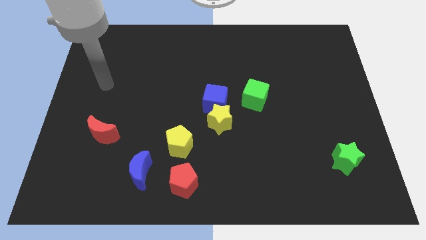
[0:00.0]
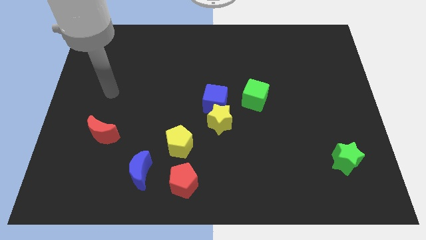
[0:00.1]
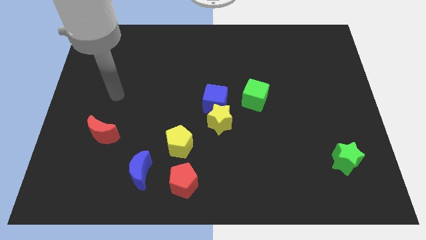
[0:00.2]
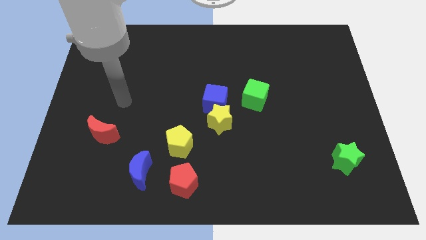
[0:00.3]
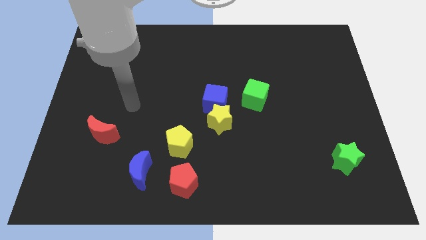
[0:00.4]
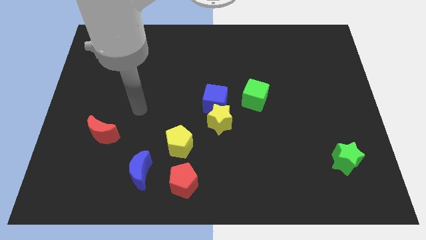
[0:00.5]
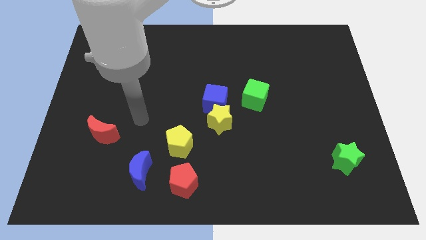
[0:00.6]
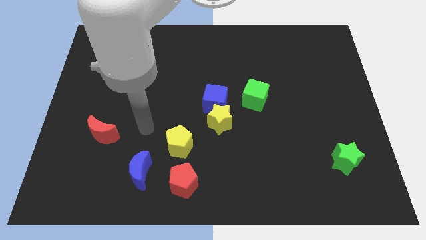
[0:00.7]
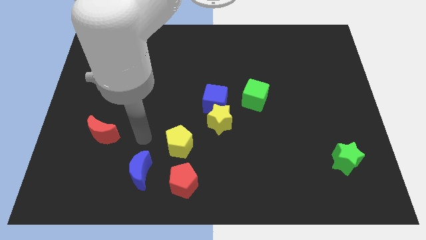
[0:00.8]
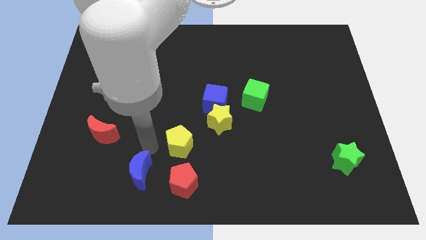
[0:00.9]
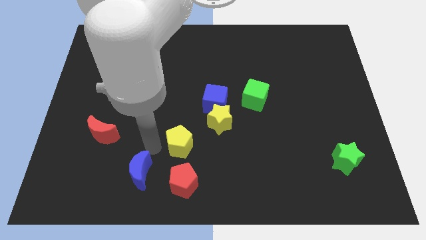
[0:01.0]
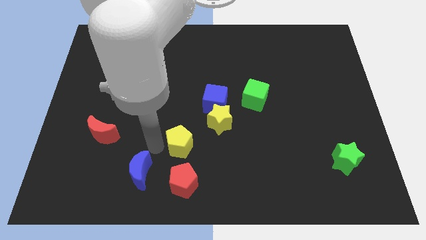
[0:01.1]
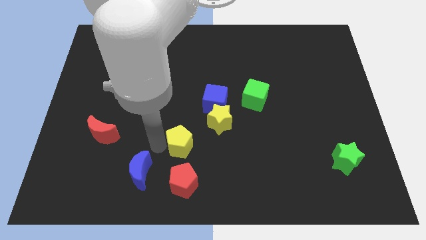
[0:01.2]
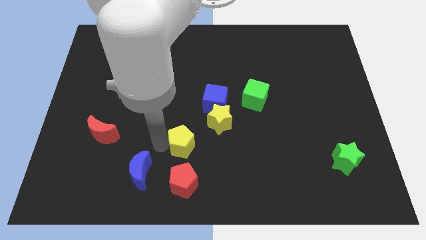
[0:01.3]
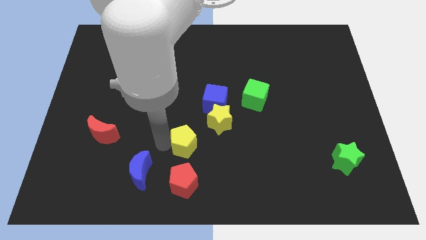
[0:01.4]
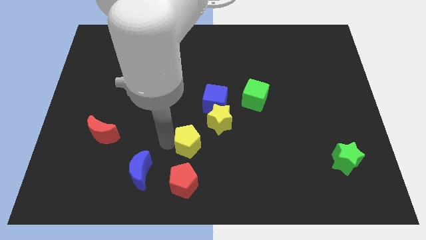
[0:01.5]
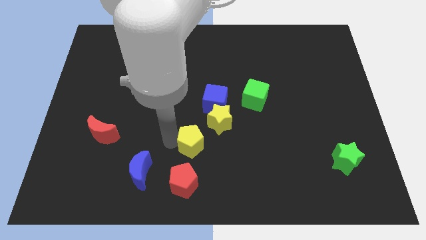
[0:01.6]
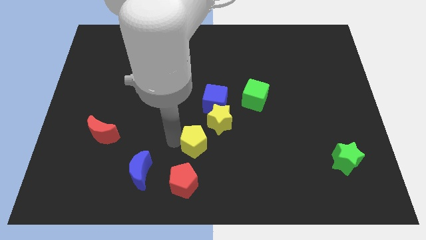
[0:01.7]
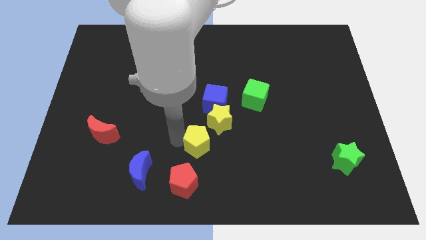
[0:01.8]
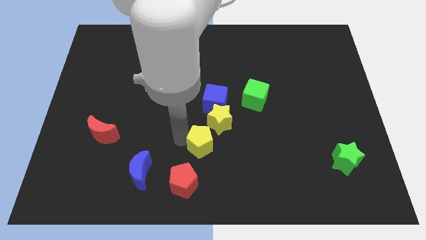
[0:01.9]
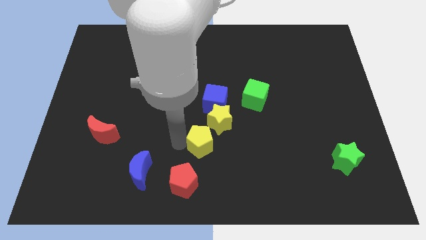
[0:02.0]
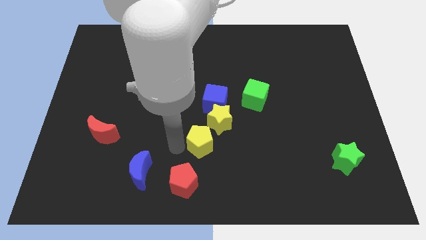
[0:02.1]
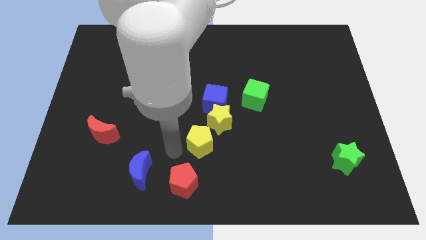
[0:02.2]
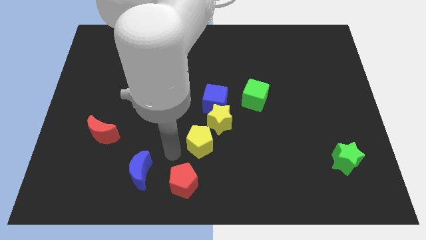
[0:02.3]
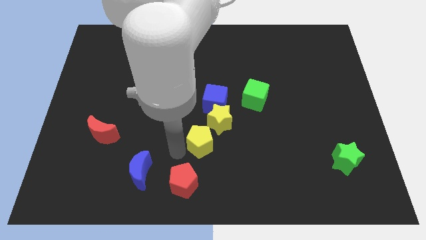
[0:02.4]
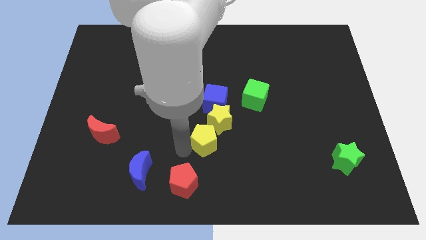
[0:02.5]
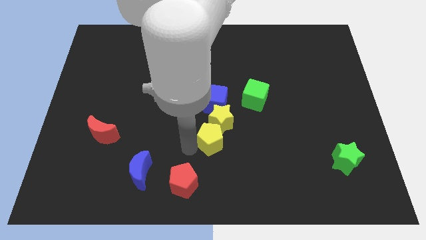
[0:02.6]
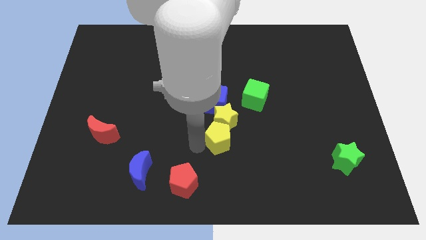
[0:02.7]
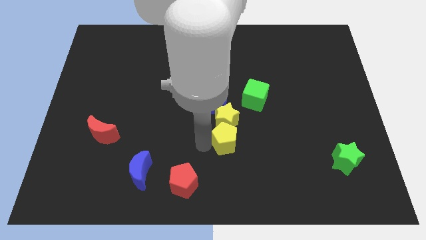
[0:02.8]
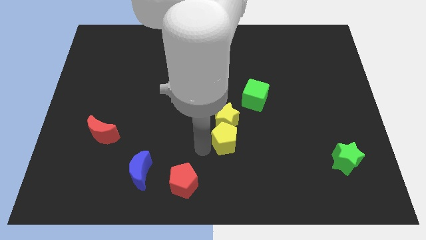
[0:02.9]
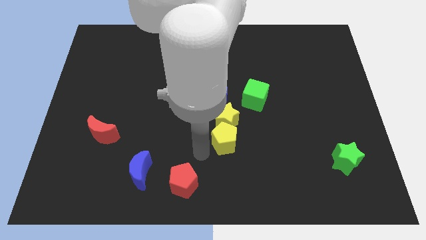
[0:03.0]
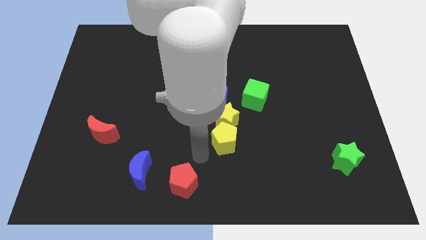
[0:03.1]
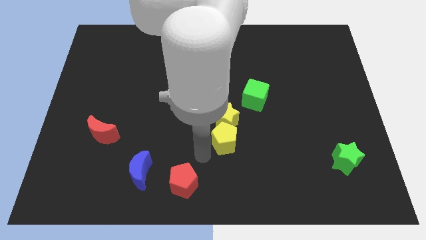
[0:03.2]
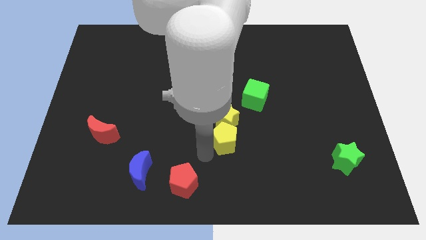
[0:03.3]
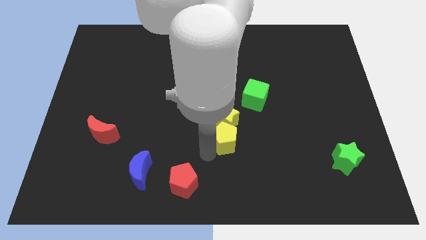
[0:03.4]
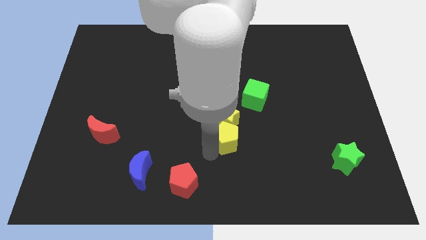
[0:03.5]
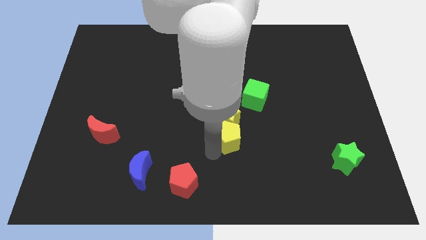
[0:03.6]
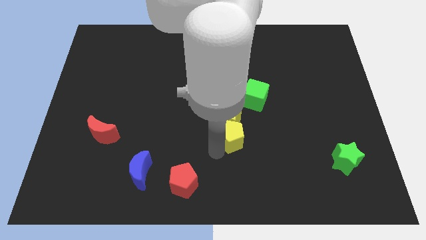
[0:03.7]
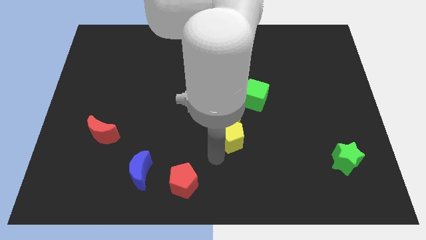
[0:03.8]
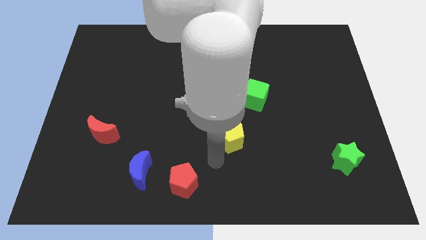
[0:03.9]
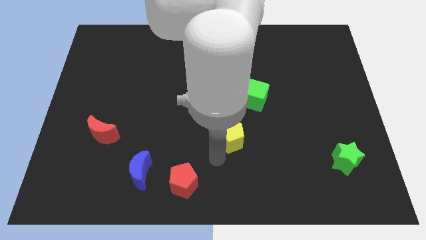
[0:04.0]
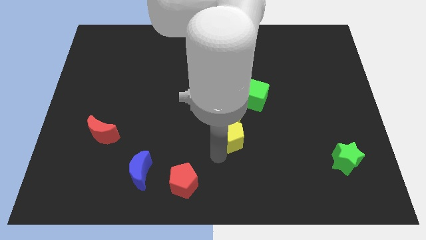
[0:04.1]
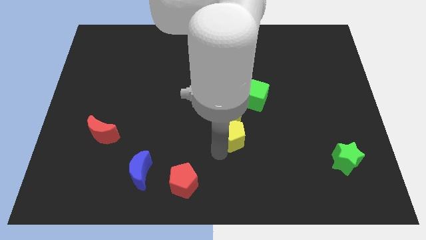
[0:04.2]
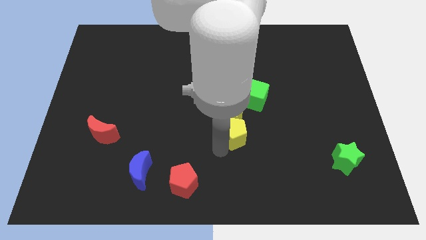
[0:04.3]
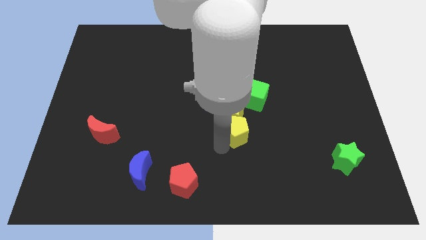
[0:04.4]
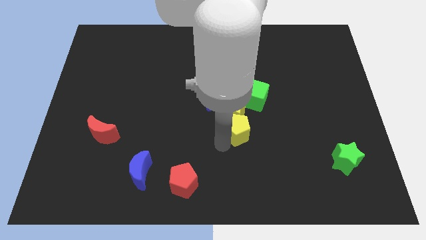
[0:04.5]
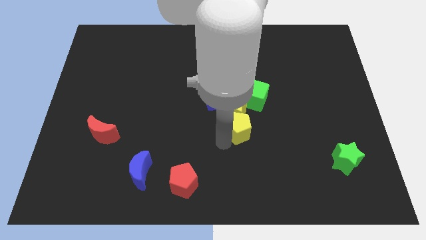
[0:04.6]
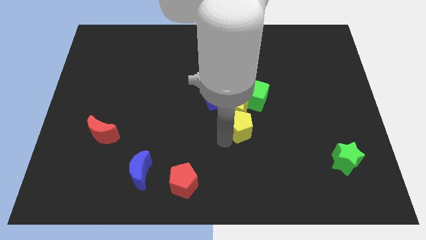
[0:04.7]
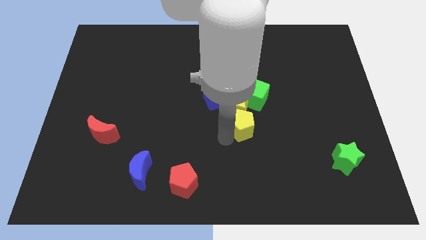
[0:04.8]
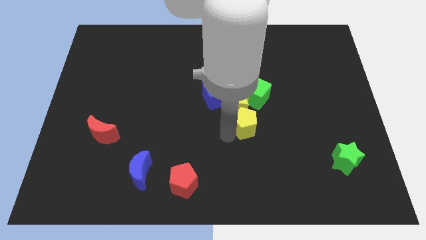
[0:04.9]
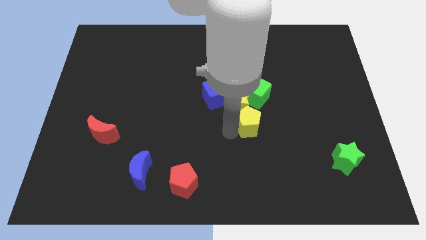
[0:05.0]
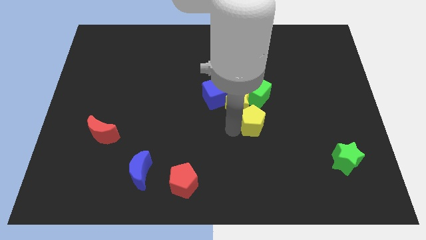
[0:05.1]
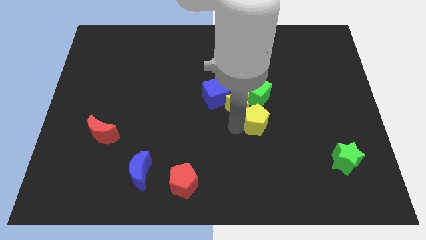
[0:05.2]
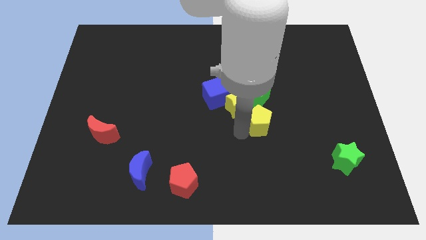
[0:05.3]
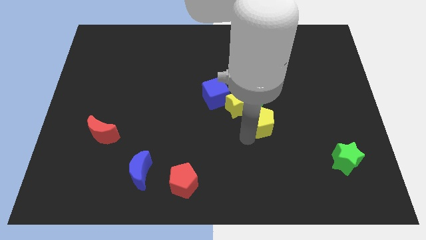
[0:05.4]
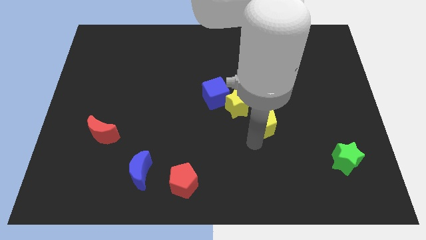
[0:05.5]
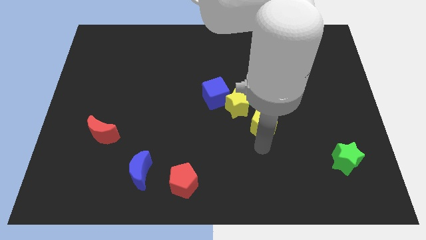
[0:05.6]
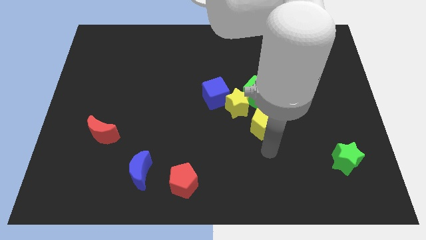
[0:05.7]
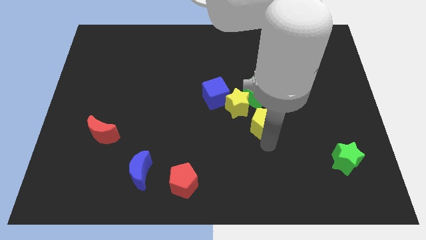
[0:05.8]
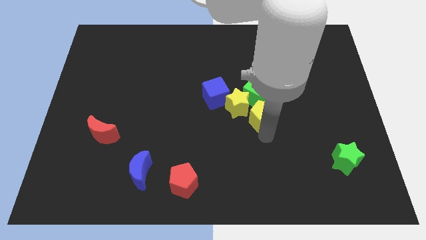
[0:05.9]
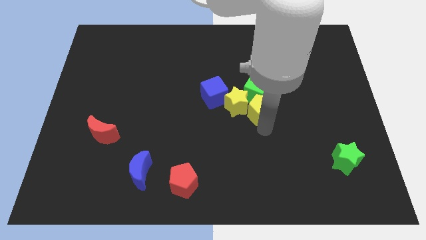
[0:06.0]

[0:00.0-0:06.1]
push the yellow pentagon to the green cube

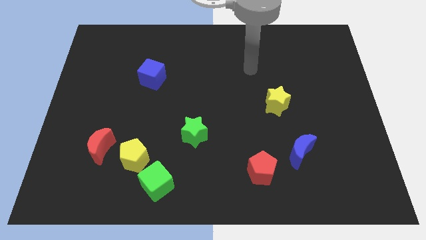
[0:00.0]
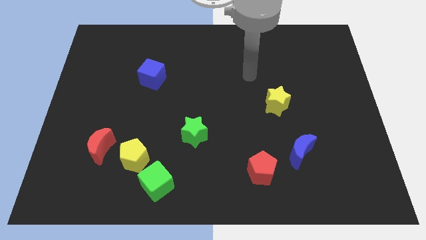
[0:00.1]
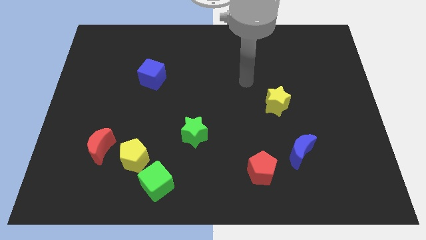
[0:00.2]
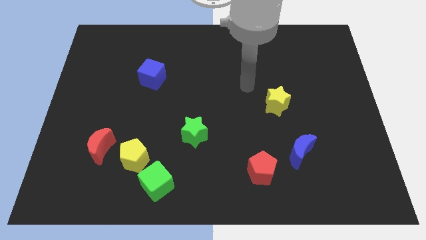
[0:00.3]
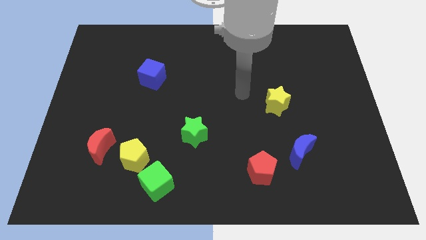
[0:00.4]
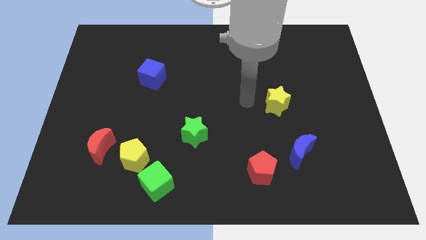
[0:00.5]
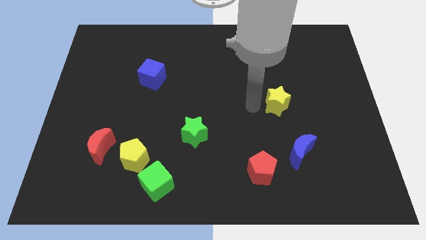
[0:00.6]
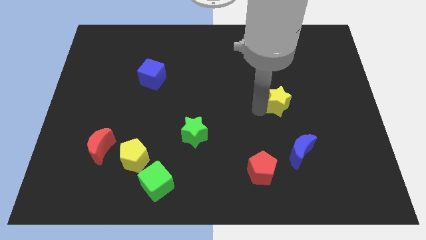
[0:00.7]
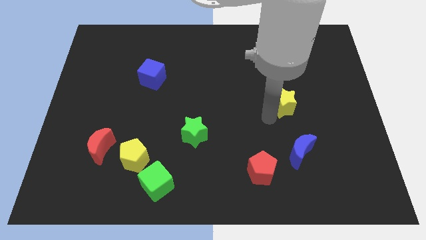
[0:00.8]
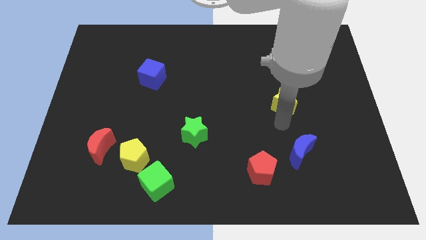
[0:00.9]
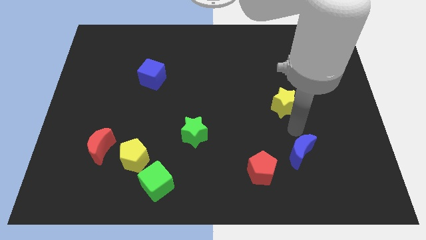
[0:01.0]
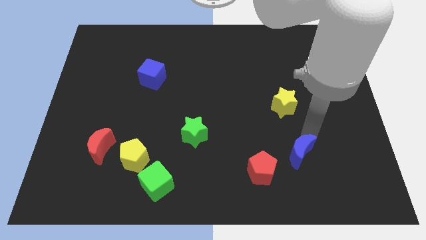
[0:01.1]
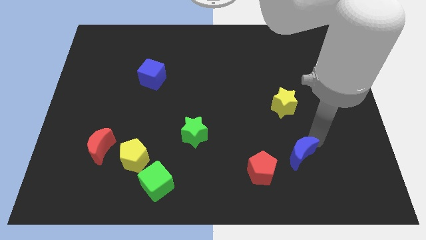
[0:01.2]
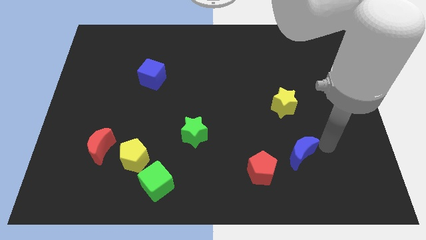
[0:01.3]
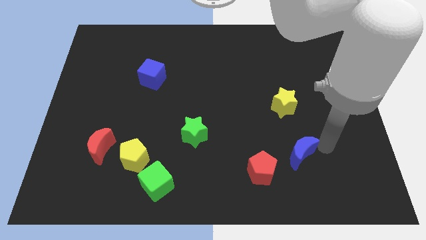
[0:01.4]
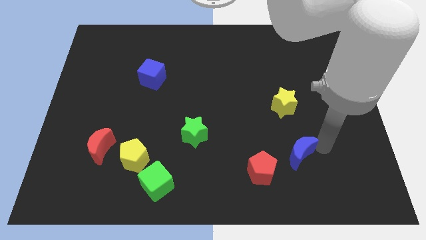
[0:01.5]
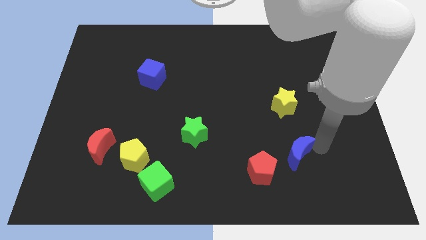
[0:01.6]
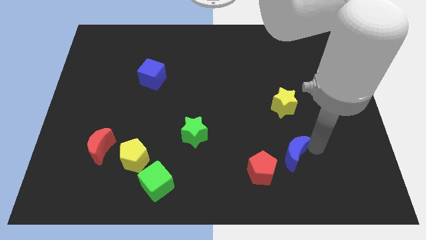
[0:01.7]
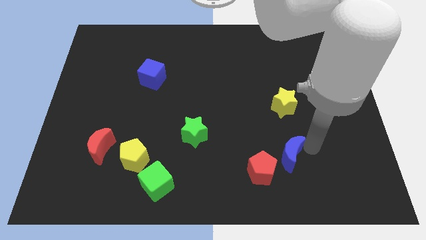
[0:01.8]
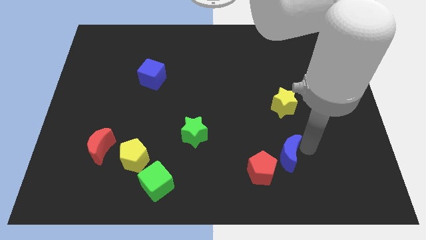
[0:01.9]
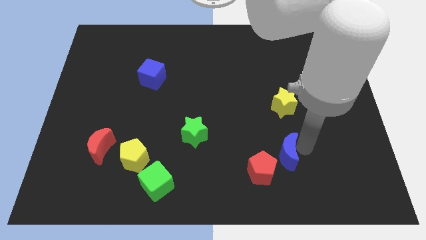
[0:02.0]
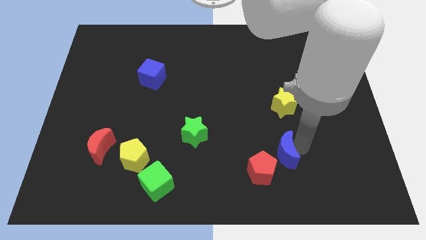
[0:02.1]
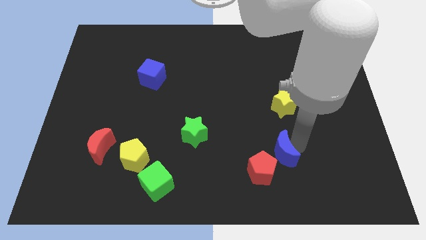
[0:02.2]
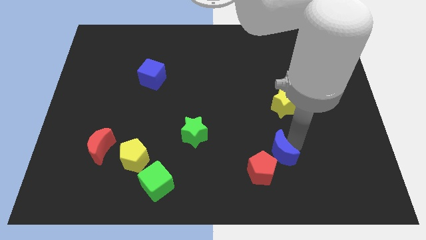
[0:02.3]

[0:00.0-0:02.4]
put the blue moon to the red pentagon
